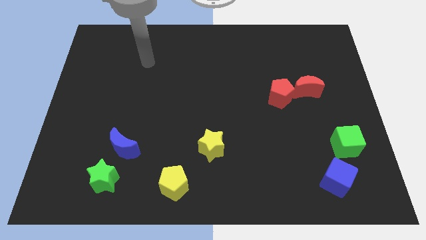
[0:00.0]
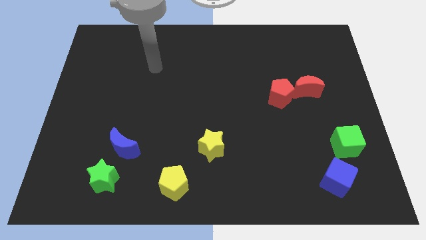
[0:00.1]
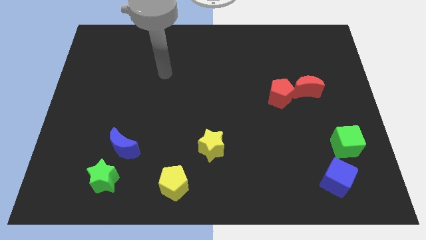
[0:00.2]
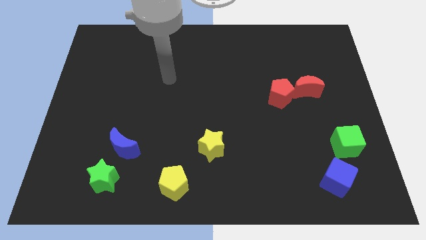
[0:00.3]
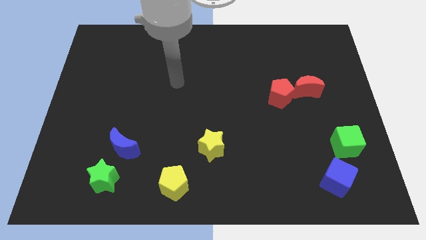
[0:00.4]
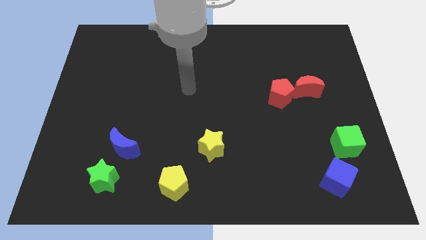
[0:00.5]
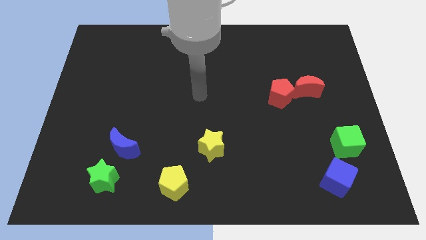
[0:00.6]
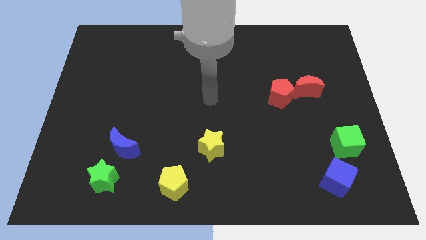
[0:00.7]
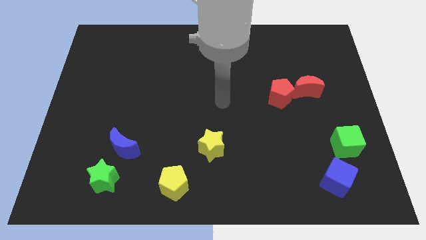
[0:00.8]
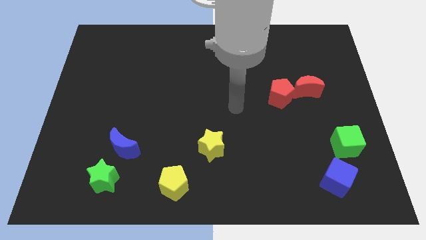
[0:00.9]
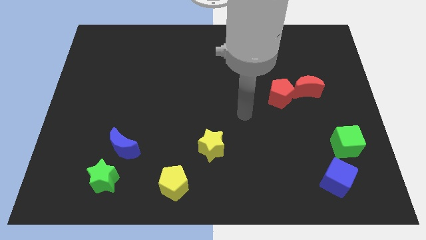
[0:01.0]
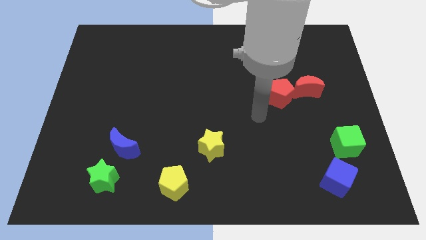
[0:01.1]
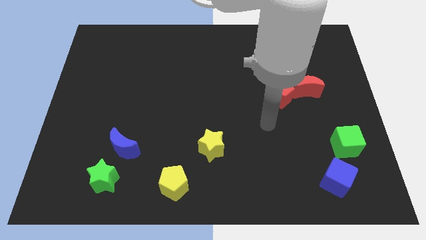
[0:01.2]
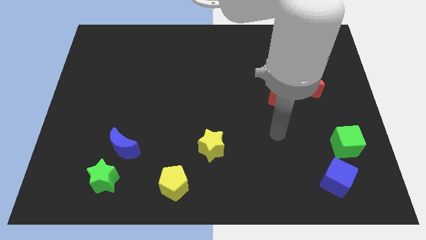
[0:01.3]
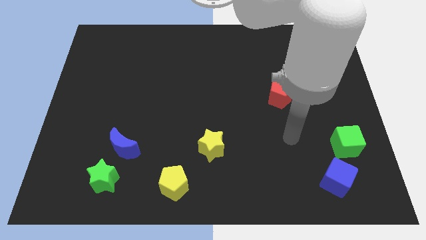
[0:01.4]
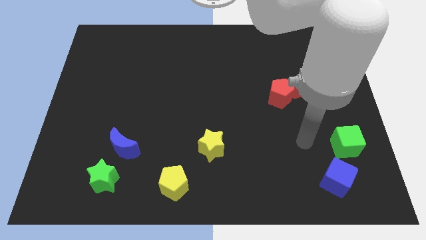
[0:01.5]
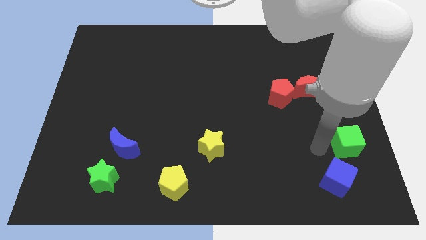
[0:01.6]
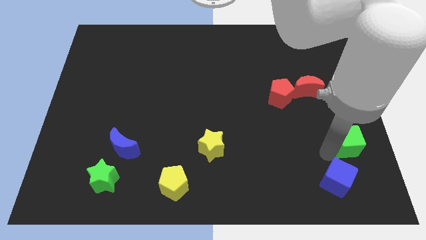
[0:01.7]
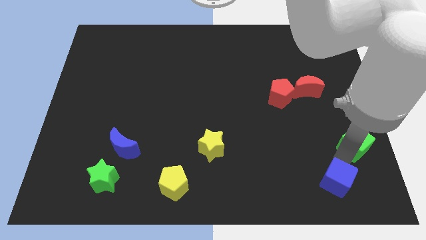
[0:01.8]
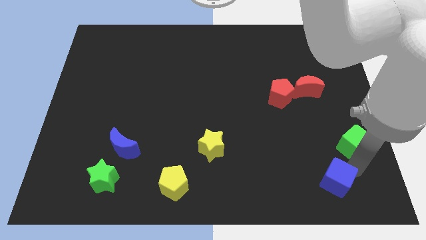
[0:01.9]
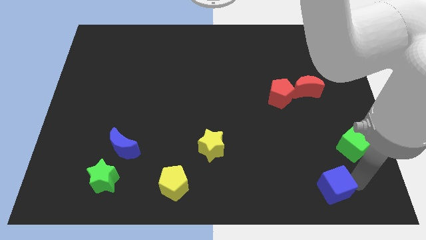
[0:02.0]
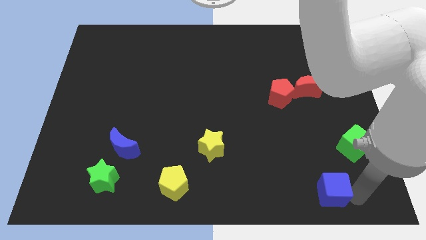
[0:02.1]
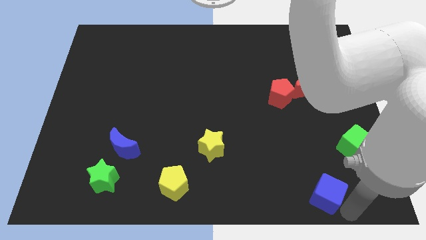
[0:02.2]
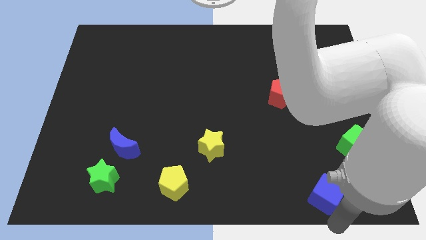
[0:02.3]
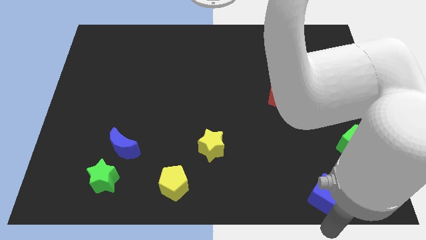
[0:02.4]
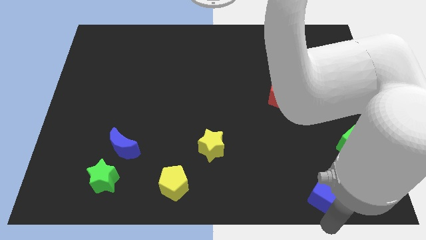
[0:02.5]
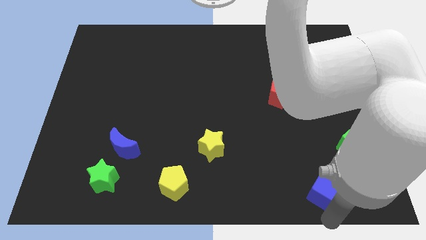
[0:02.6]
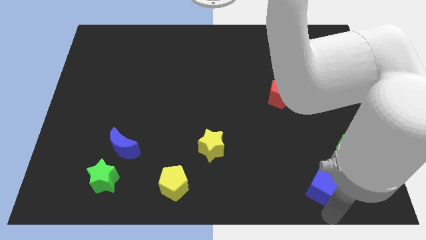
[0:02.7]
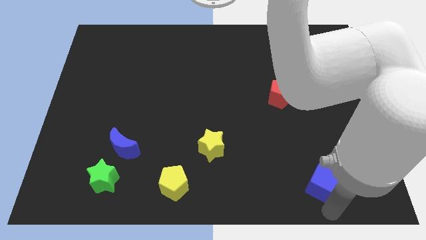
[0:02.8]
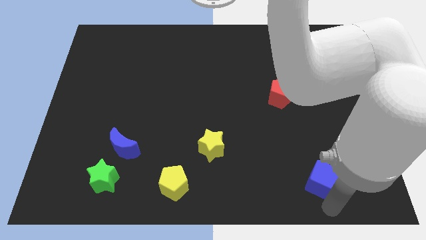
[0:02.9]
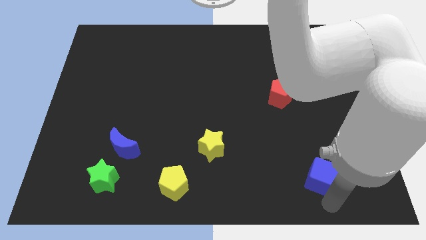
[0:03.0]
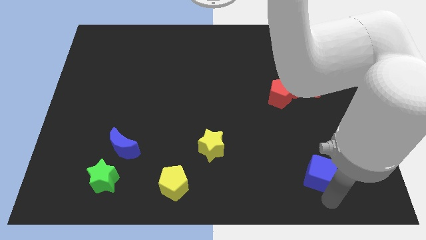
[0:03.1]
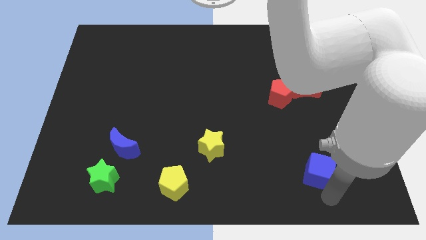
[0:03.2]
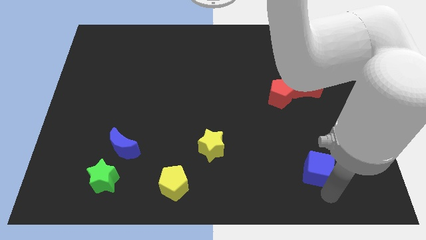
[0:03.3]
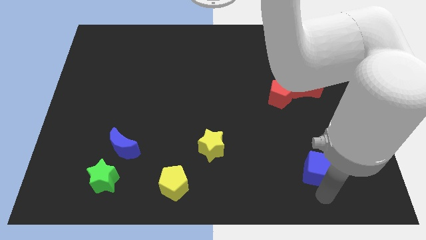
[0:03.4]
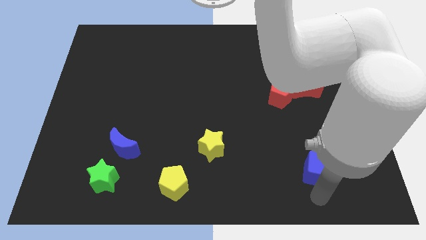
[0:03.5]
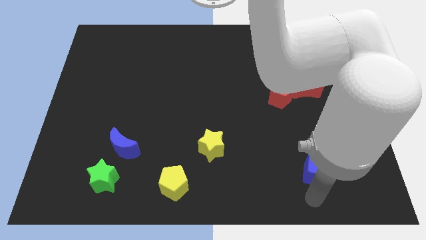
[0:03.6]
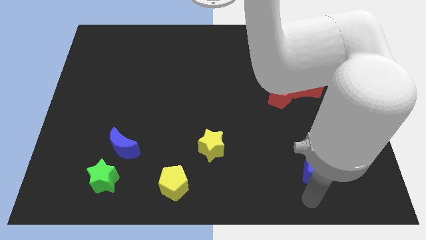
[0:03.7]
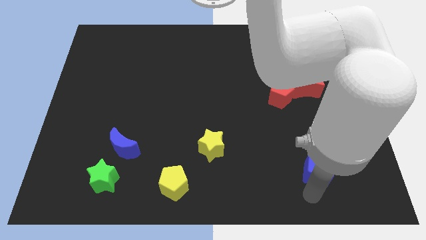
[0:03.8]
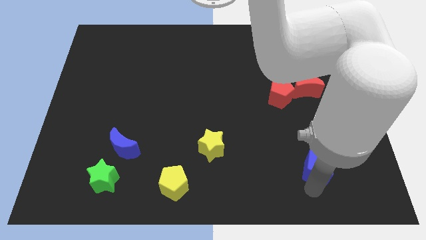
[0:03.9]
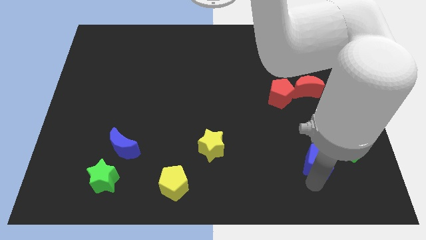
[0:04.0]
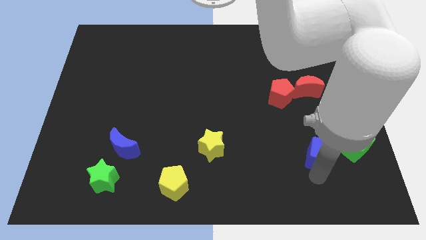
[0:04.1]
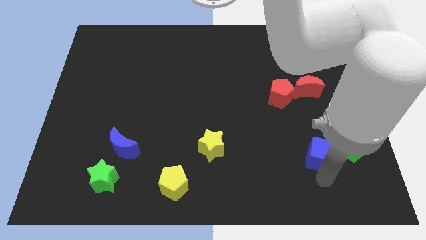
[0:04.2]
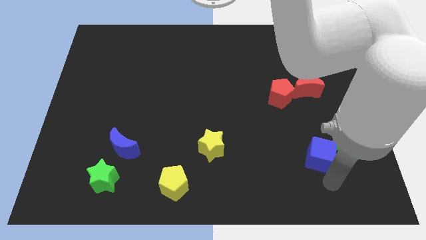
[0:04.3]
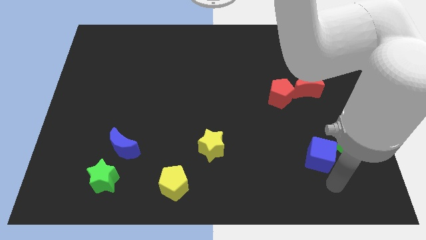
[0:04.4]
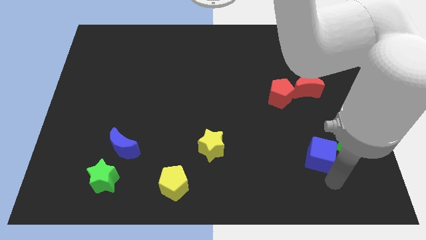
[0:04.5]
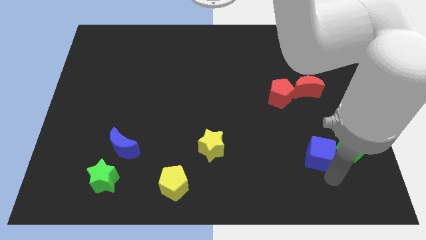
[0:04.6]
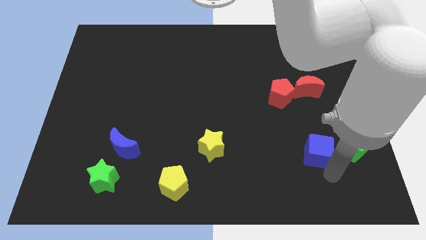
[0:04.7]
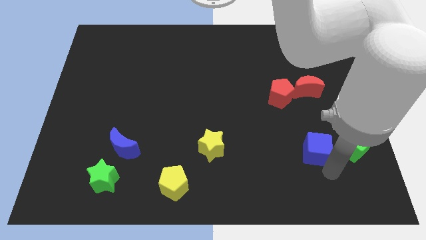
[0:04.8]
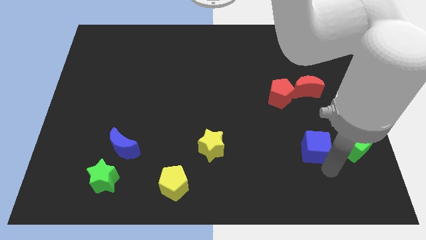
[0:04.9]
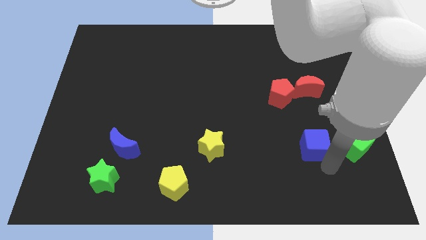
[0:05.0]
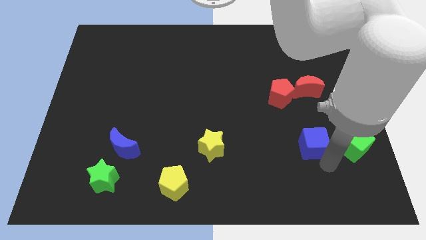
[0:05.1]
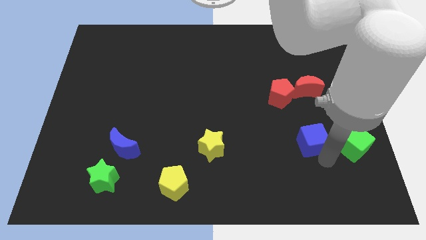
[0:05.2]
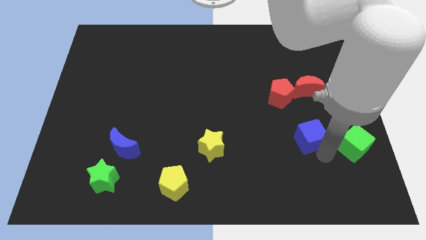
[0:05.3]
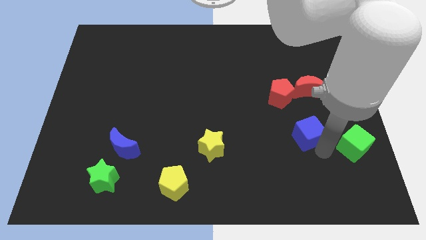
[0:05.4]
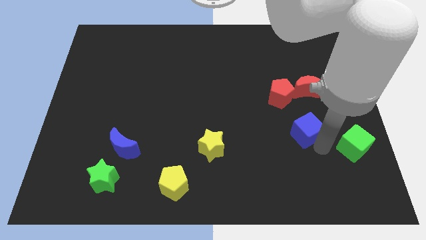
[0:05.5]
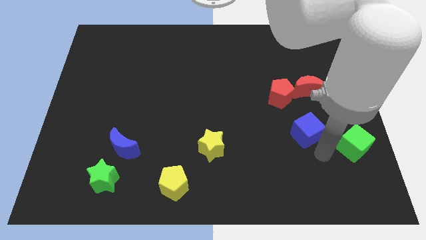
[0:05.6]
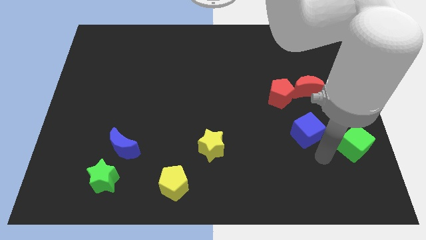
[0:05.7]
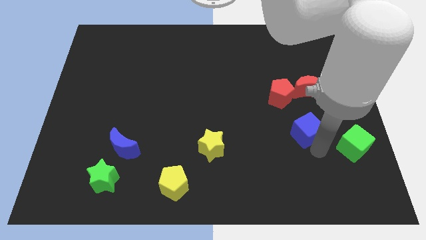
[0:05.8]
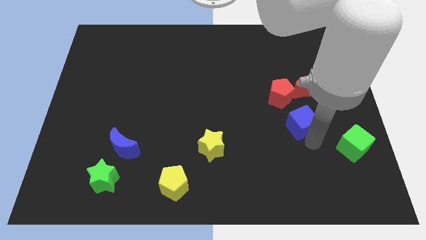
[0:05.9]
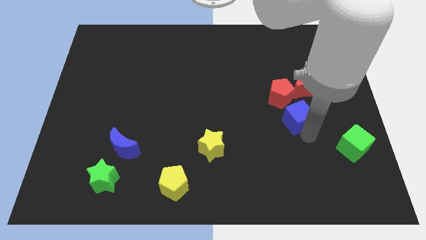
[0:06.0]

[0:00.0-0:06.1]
slide the blue cube diagonally down and to the left of the red moon
